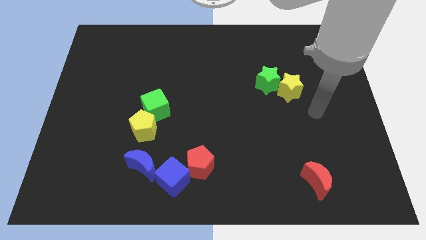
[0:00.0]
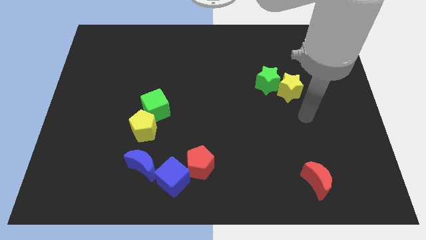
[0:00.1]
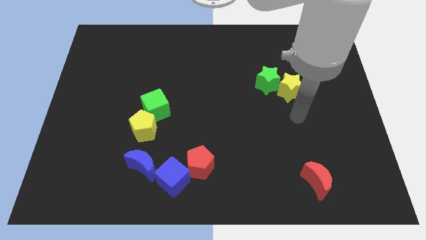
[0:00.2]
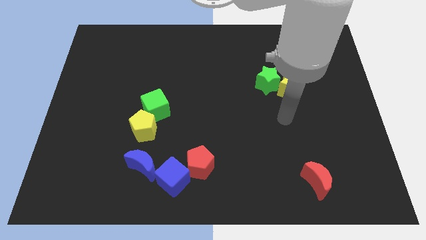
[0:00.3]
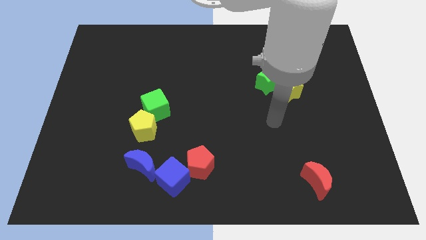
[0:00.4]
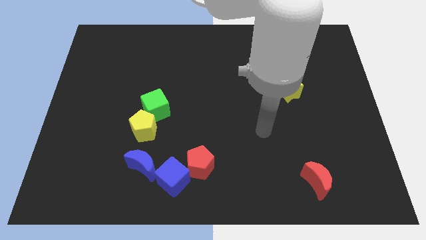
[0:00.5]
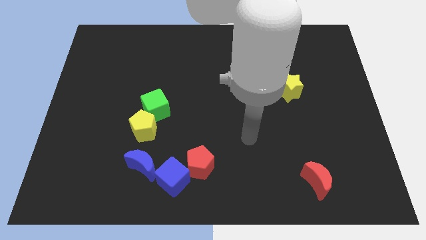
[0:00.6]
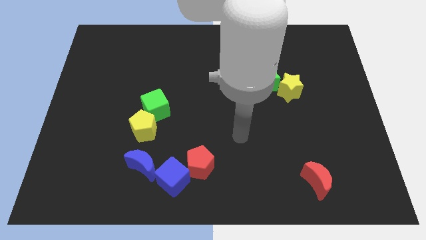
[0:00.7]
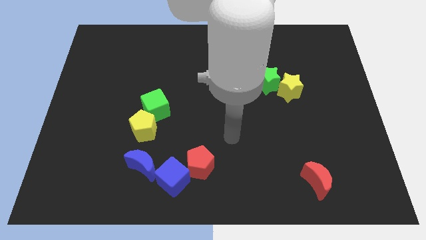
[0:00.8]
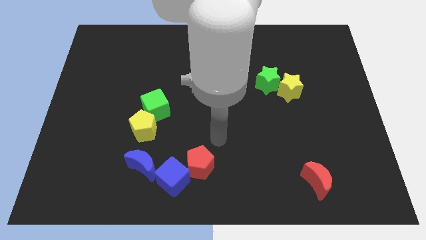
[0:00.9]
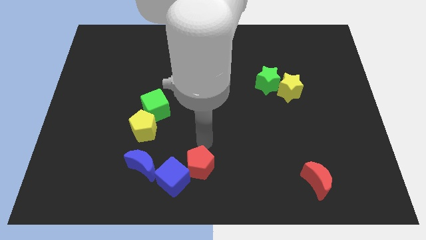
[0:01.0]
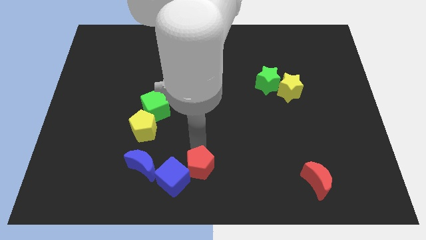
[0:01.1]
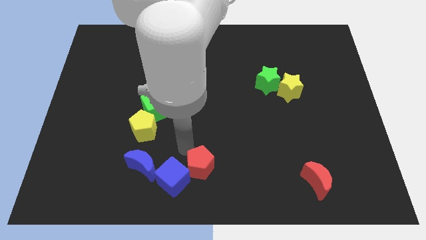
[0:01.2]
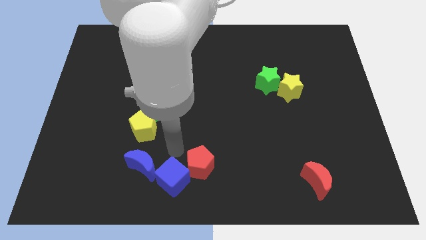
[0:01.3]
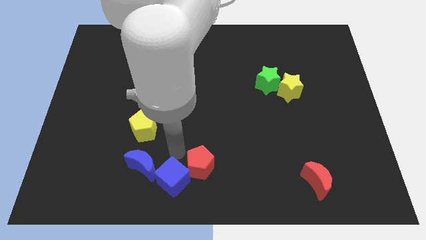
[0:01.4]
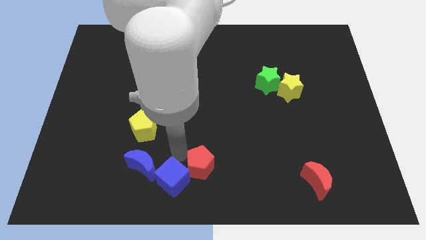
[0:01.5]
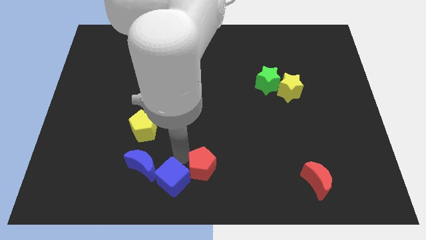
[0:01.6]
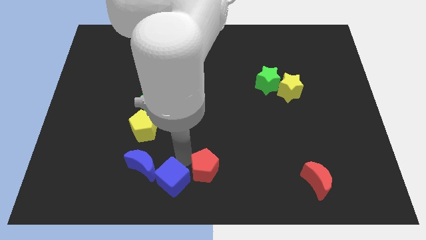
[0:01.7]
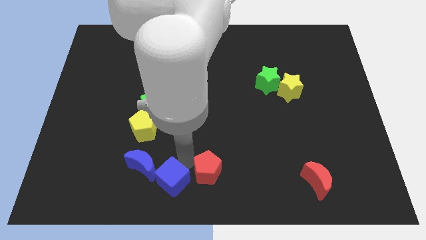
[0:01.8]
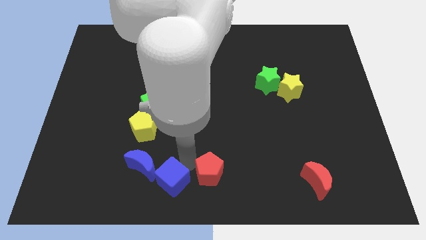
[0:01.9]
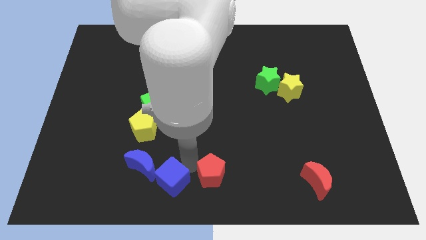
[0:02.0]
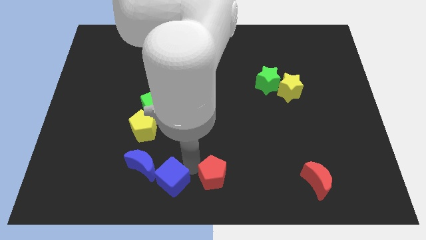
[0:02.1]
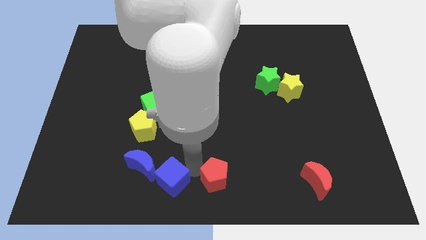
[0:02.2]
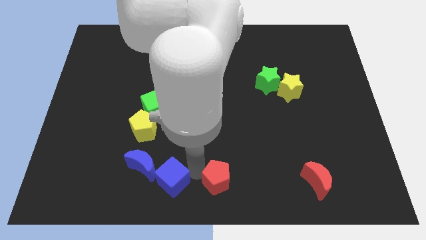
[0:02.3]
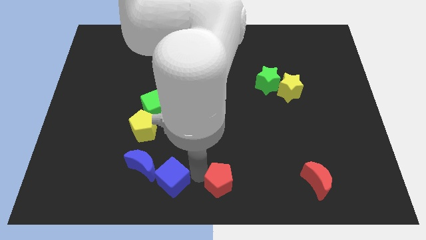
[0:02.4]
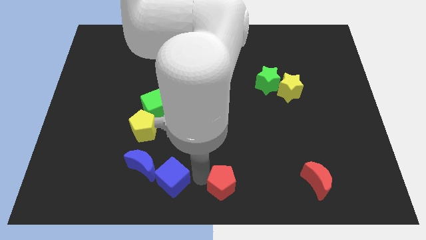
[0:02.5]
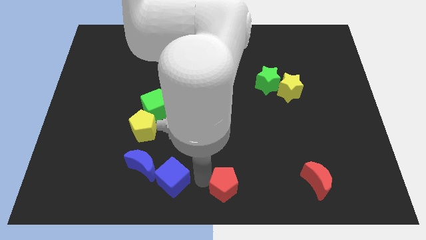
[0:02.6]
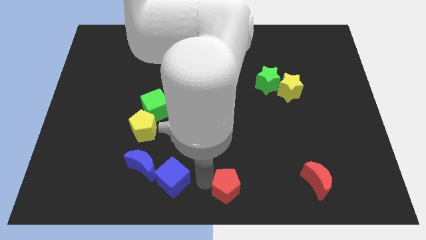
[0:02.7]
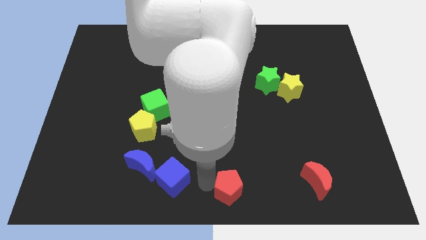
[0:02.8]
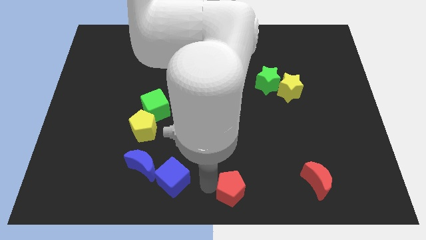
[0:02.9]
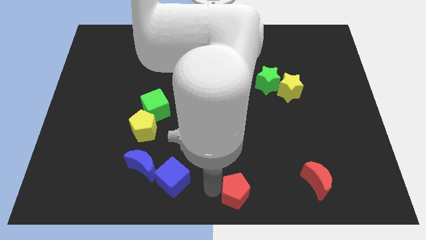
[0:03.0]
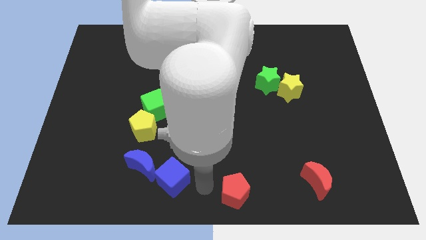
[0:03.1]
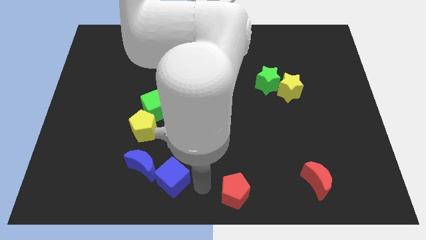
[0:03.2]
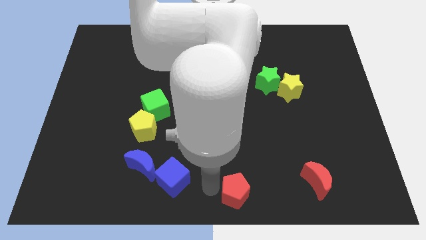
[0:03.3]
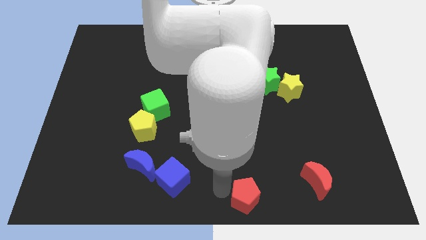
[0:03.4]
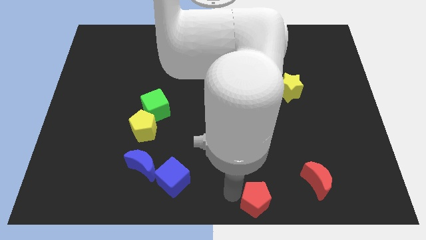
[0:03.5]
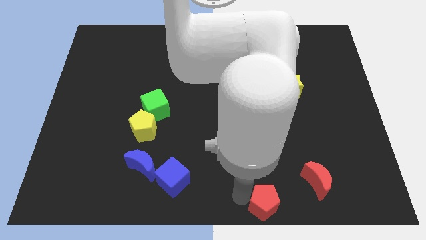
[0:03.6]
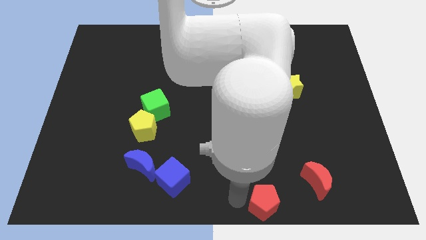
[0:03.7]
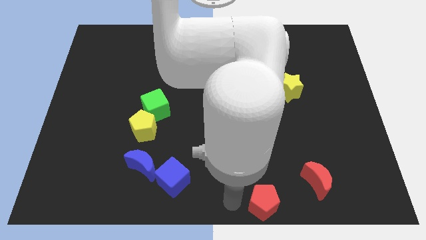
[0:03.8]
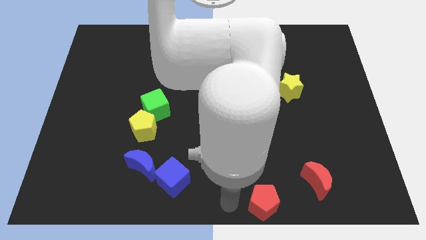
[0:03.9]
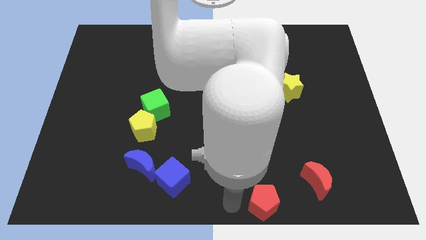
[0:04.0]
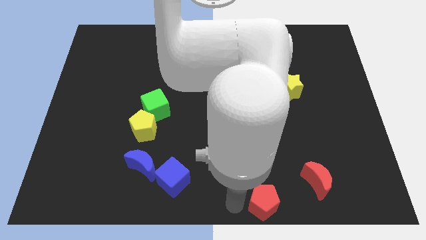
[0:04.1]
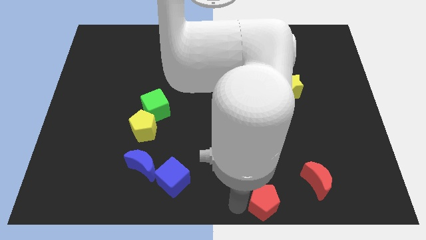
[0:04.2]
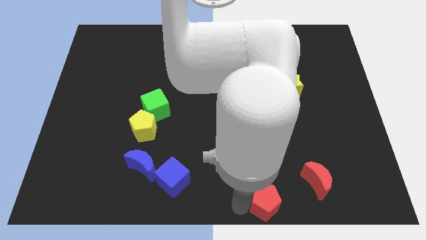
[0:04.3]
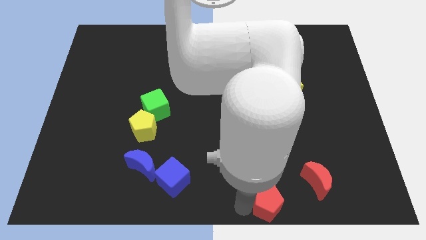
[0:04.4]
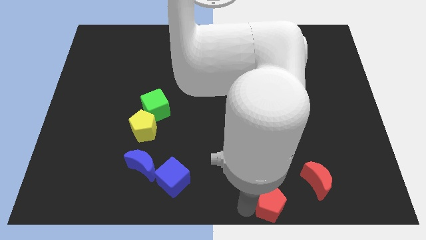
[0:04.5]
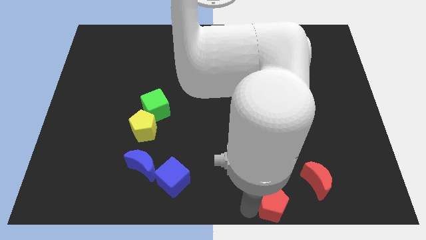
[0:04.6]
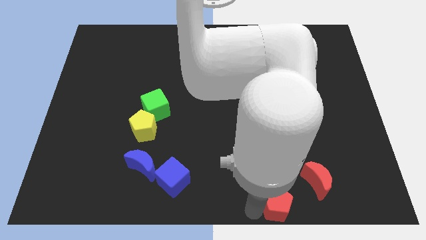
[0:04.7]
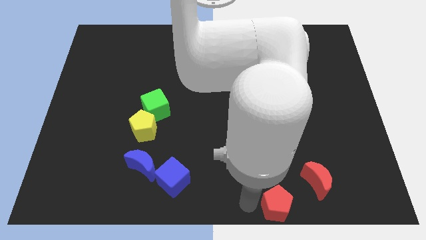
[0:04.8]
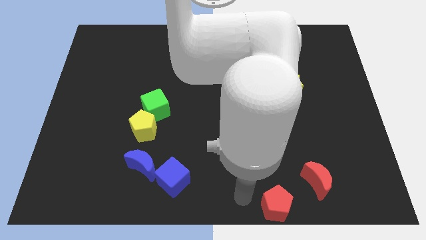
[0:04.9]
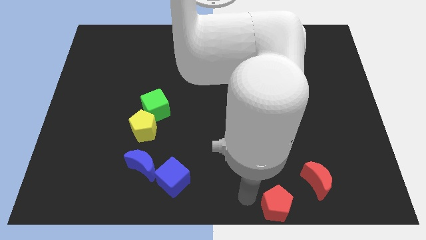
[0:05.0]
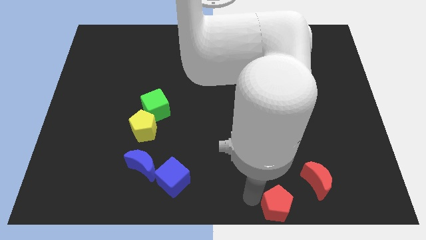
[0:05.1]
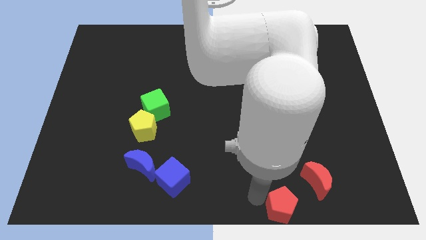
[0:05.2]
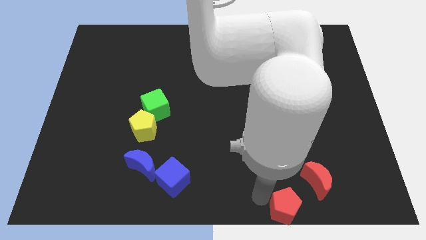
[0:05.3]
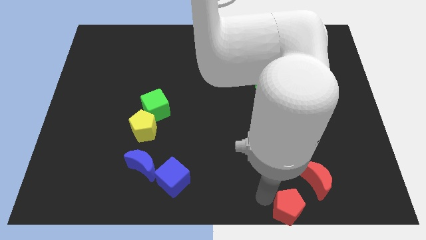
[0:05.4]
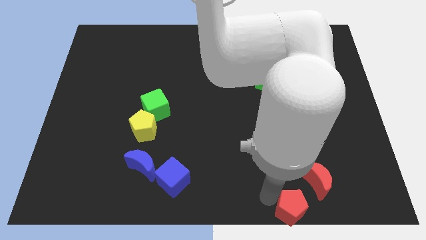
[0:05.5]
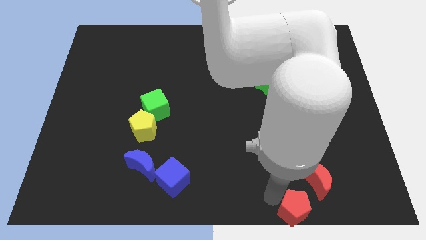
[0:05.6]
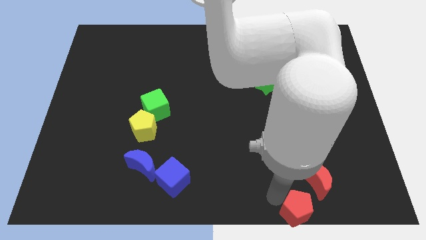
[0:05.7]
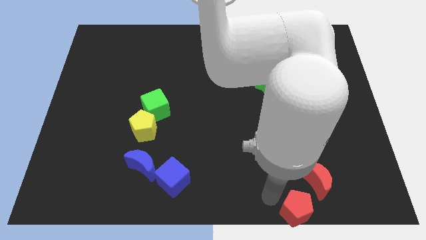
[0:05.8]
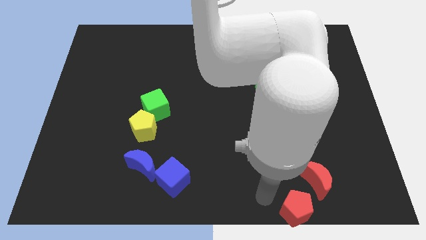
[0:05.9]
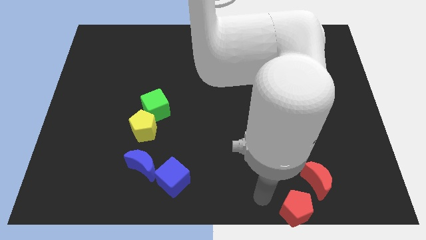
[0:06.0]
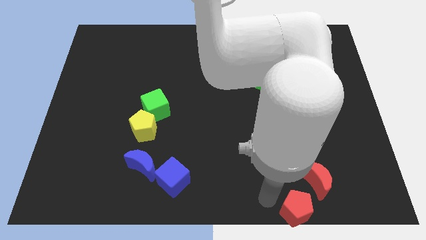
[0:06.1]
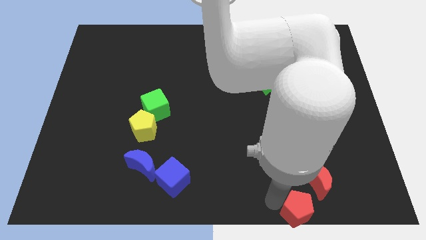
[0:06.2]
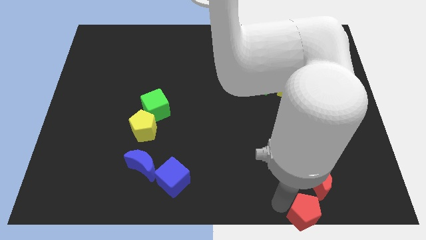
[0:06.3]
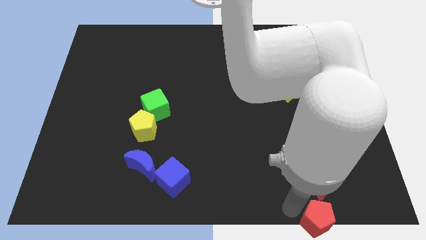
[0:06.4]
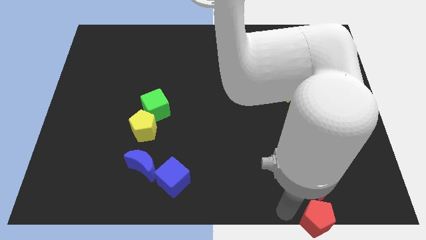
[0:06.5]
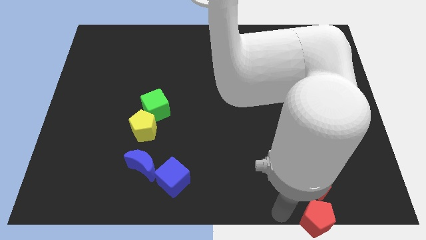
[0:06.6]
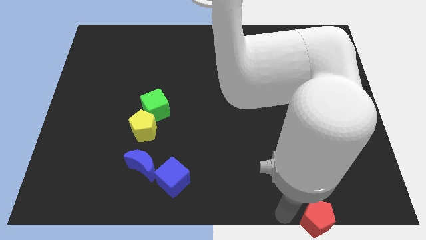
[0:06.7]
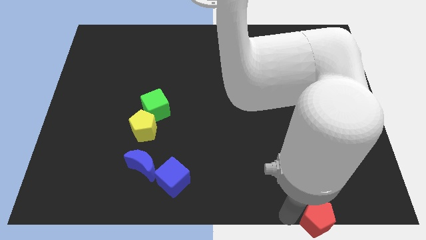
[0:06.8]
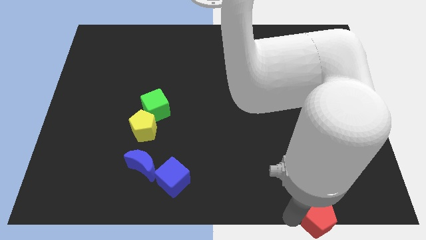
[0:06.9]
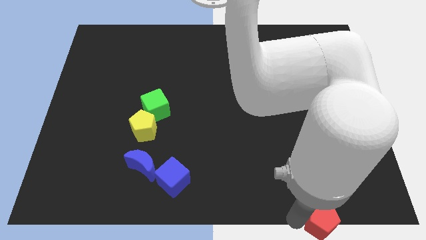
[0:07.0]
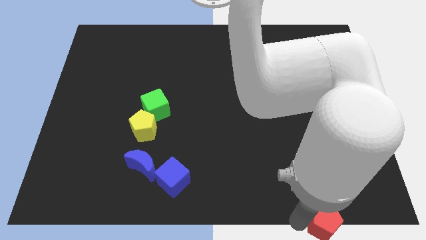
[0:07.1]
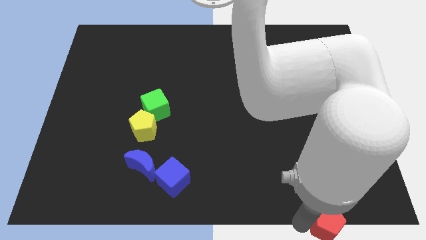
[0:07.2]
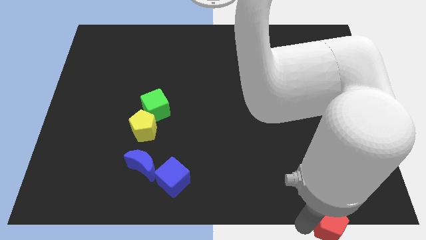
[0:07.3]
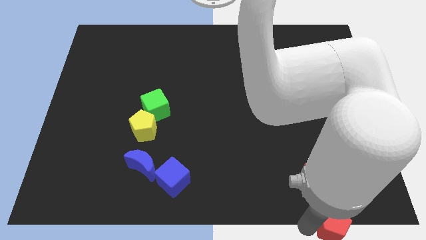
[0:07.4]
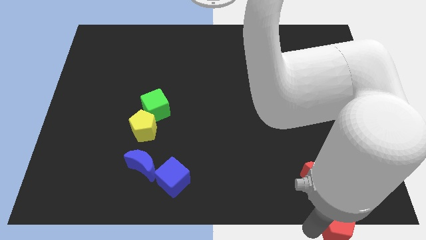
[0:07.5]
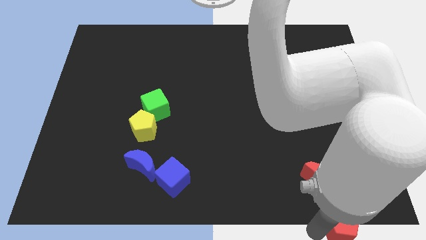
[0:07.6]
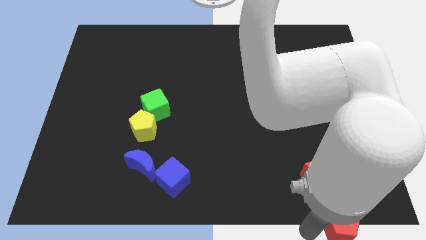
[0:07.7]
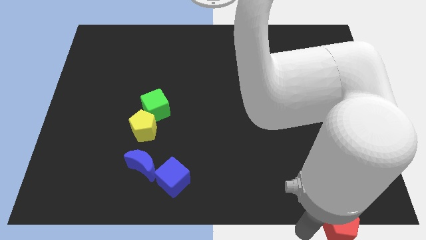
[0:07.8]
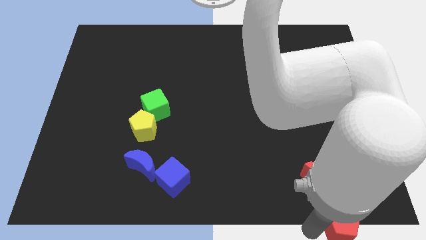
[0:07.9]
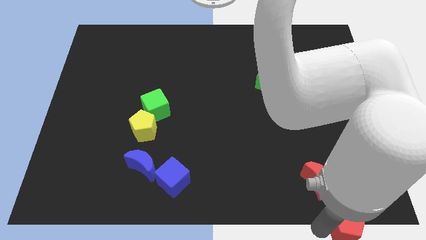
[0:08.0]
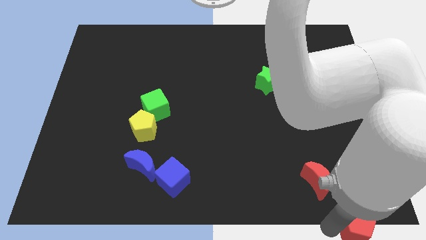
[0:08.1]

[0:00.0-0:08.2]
slide the red pentagon to the bottom right of the board
